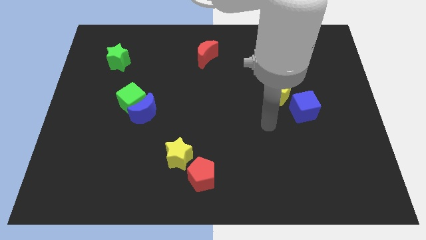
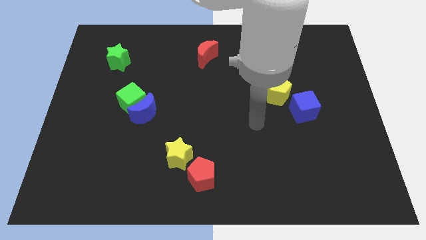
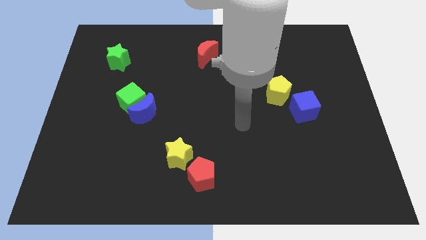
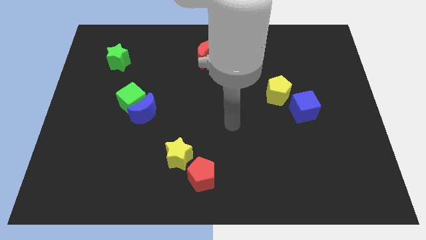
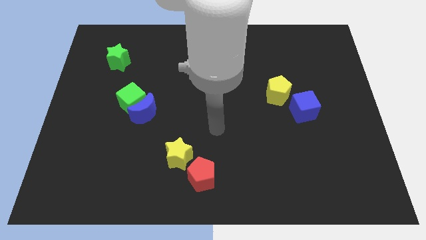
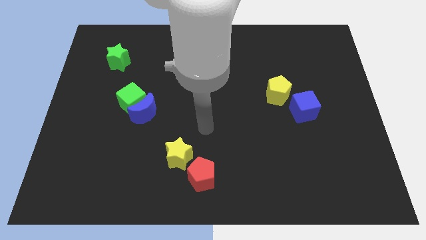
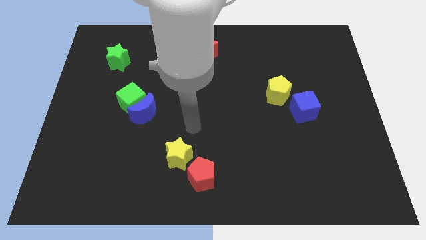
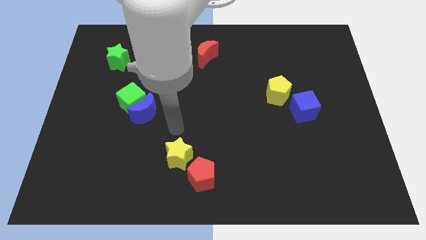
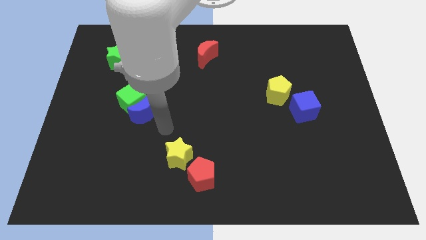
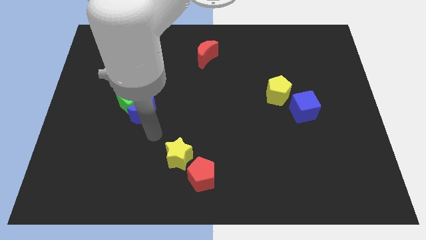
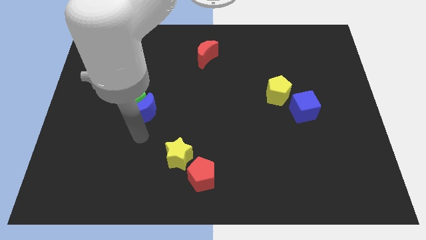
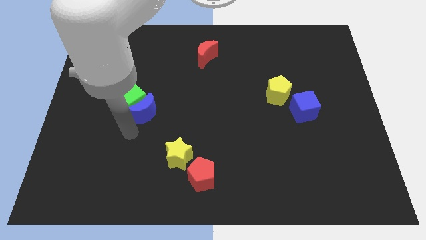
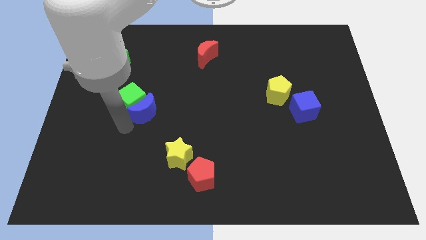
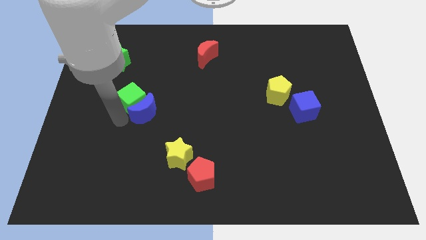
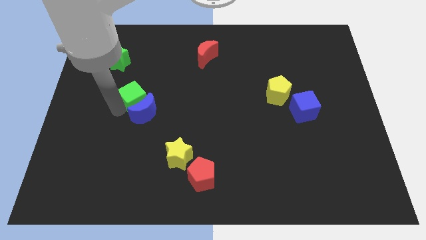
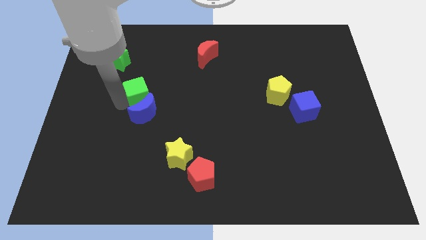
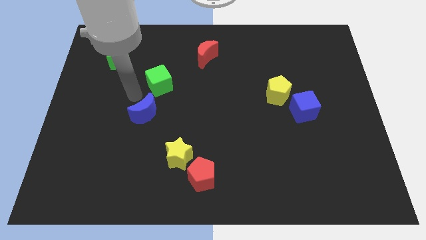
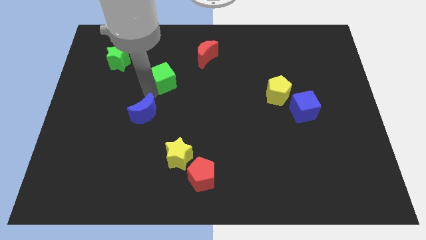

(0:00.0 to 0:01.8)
move the blue moon away from the green cube

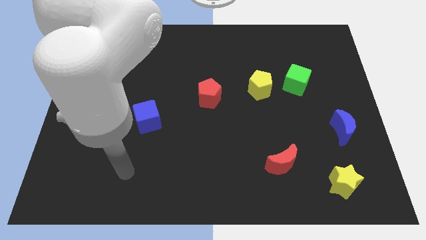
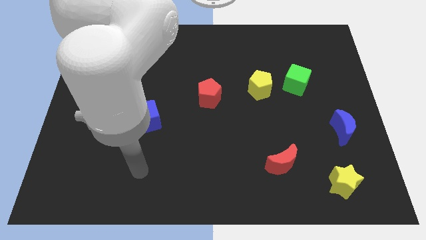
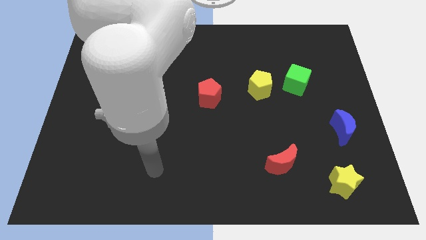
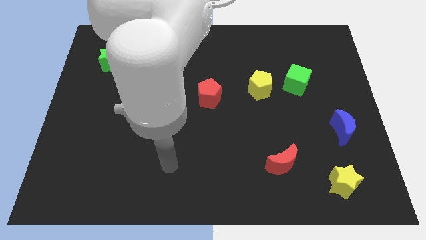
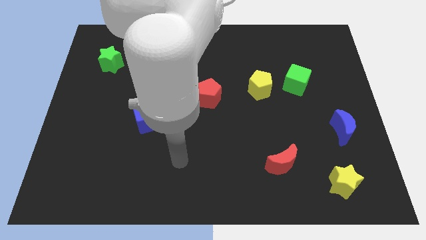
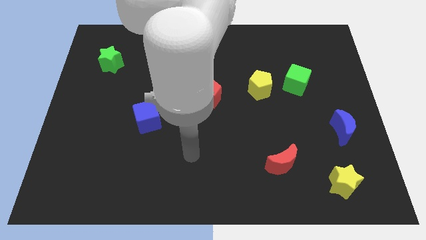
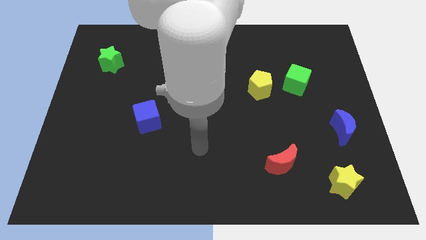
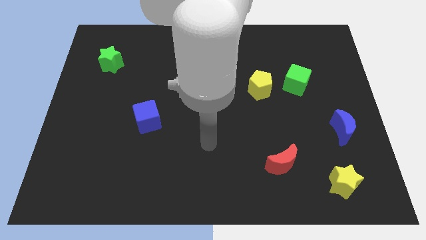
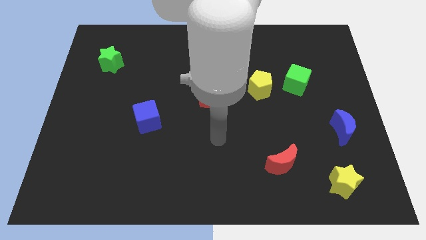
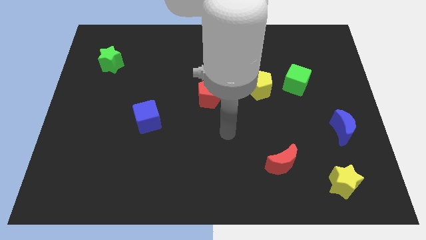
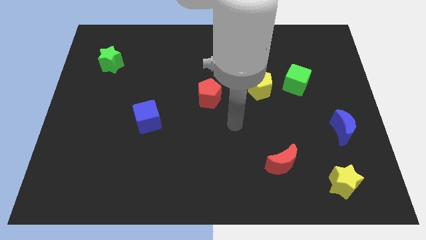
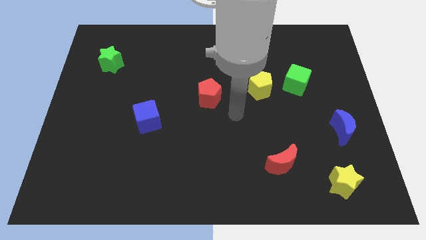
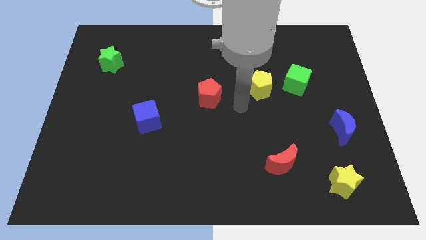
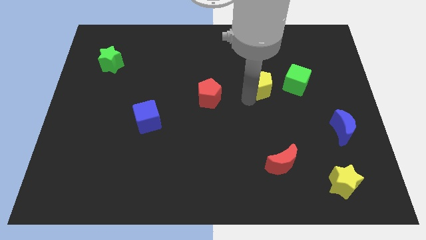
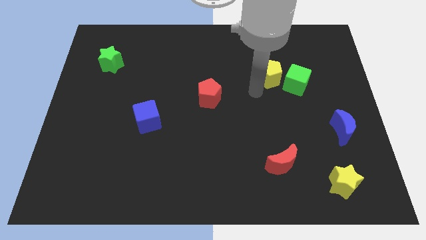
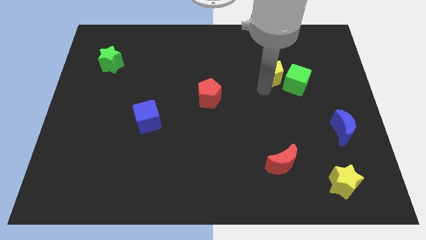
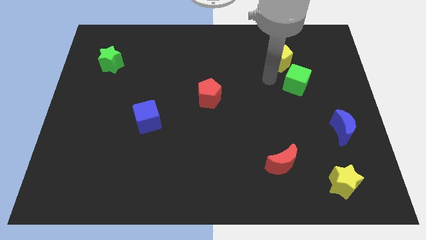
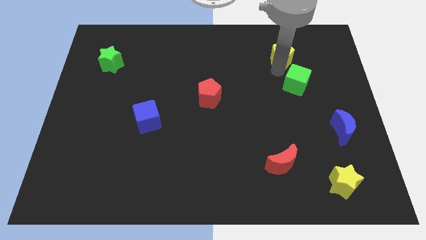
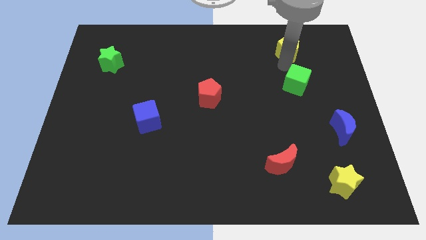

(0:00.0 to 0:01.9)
pull the green cube apart from the yellow pentagon

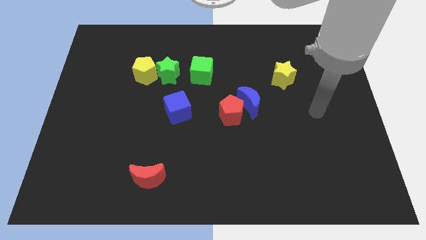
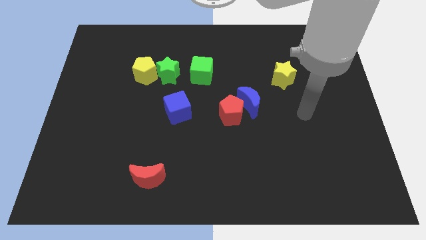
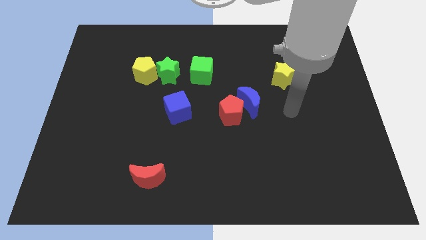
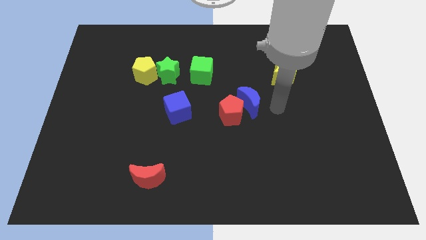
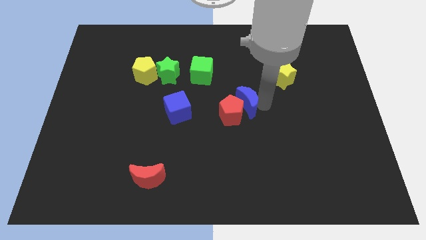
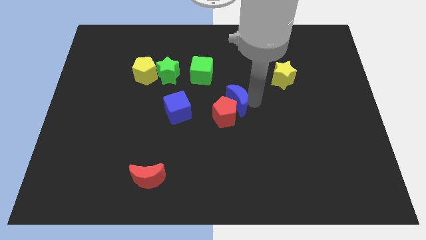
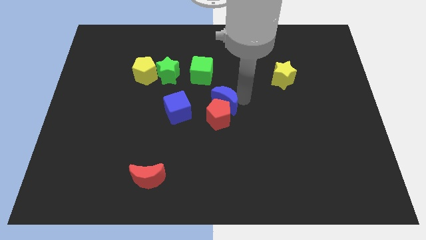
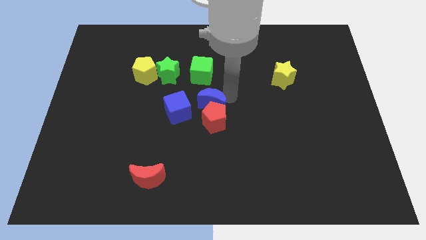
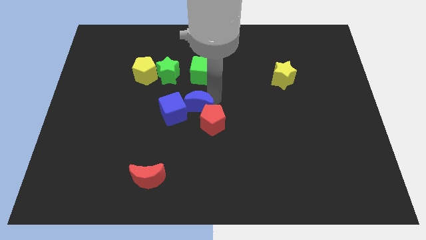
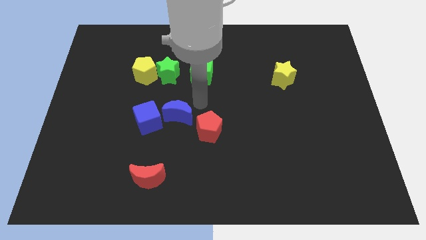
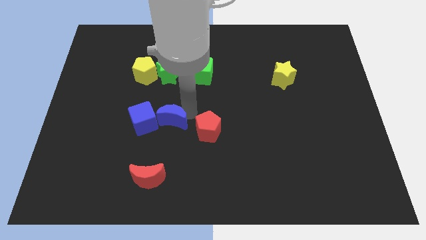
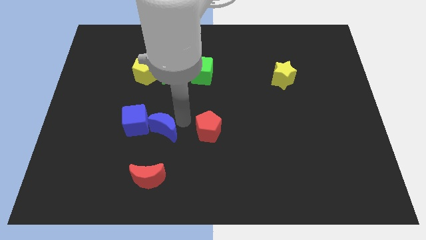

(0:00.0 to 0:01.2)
separate the red pentagon from the blue moon

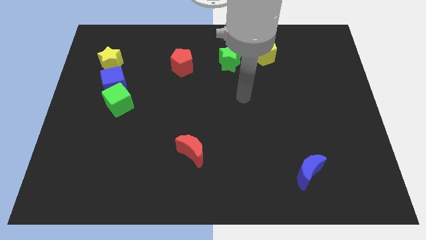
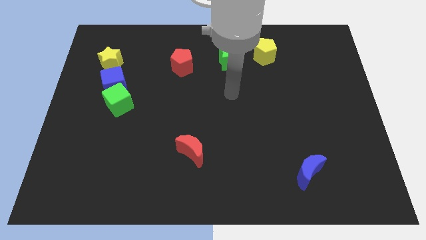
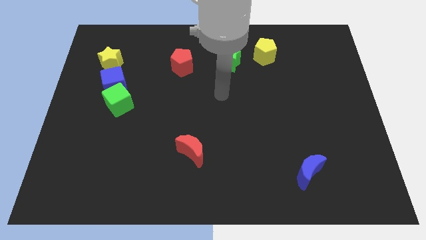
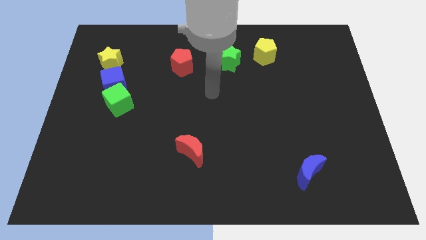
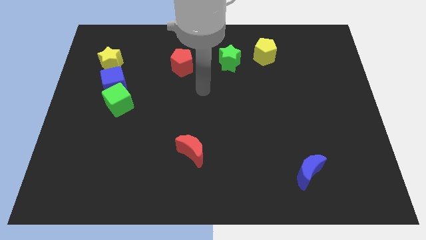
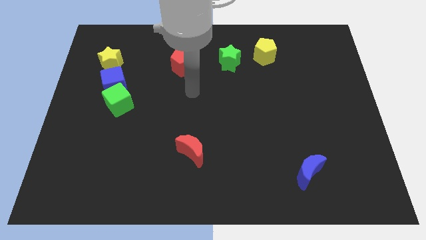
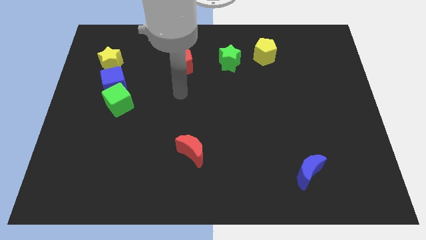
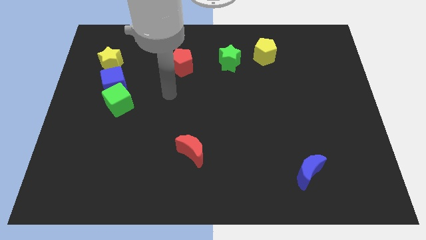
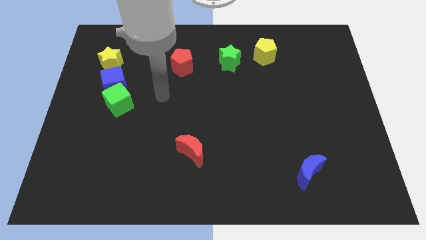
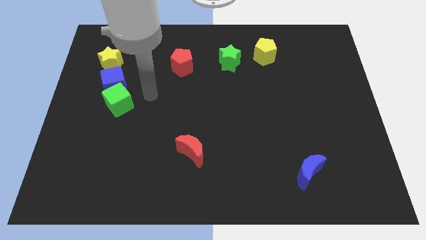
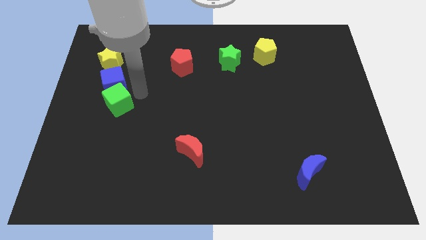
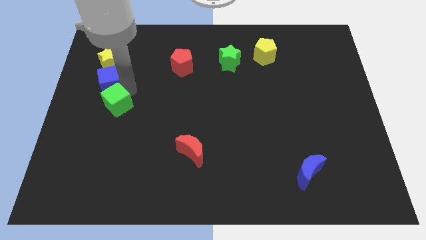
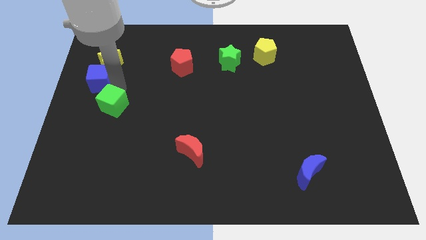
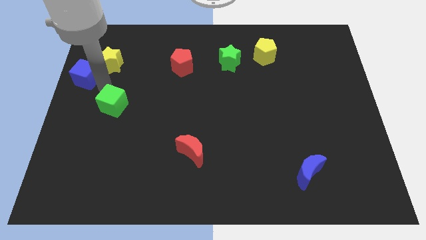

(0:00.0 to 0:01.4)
separate the green cube from the blue cube

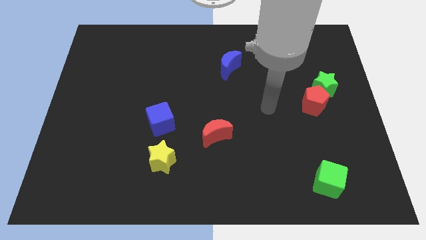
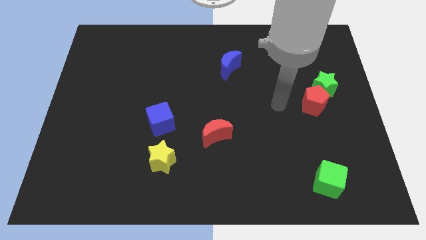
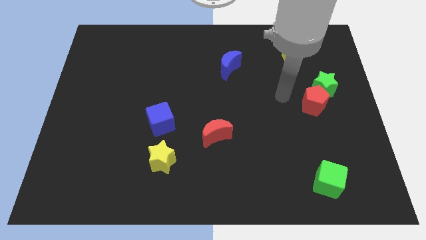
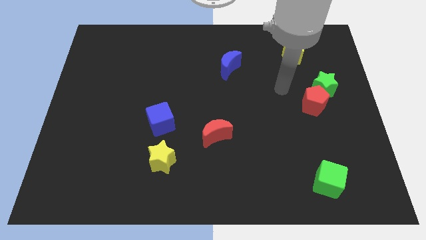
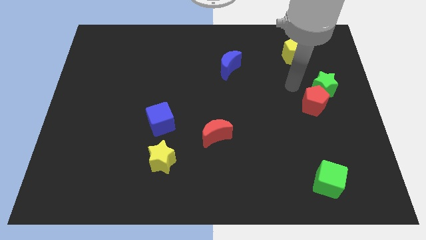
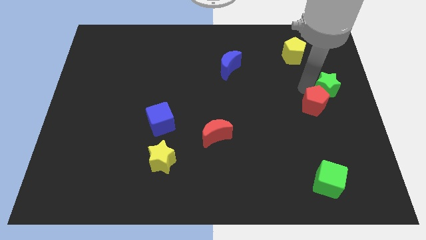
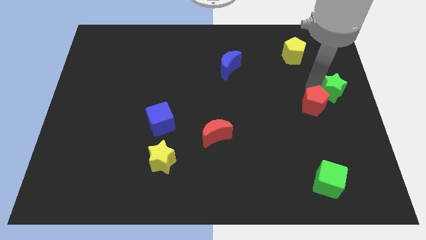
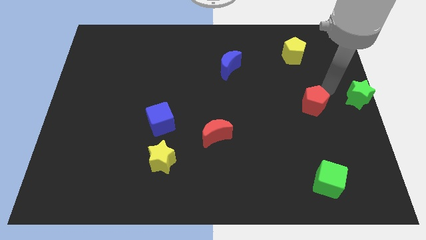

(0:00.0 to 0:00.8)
move the red pentagon away from the green star

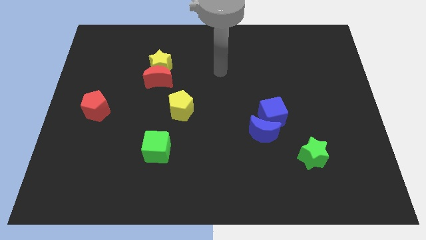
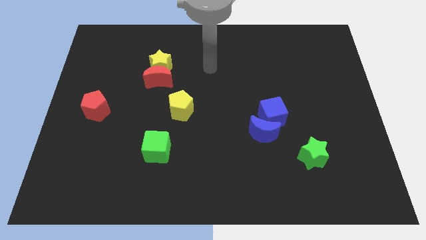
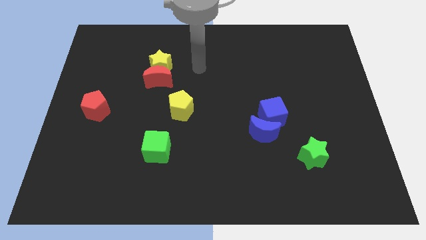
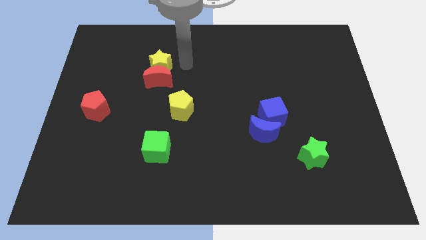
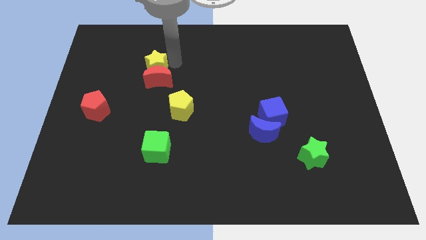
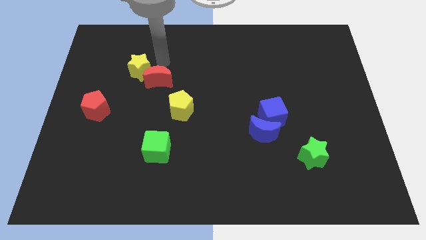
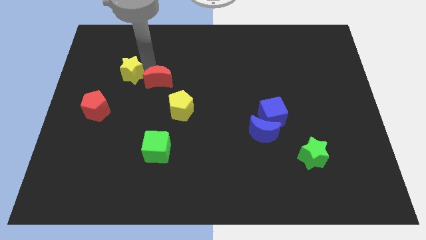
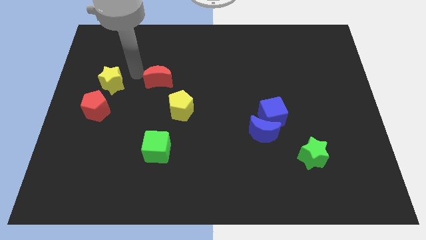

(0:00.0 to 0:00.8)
move the red moon away from the yellow star

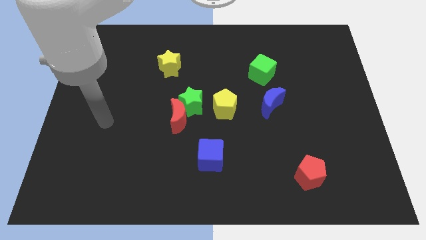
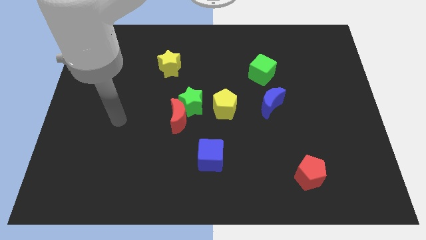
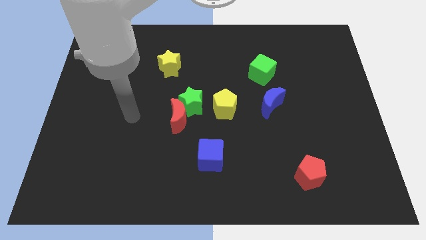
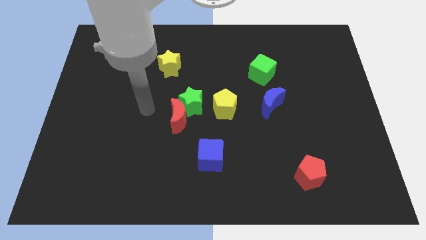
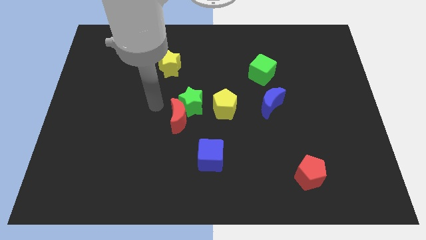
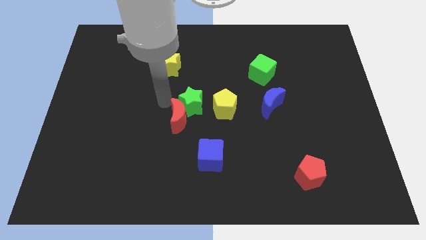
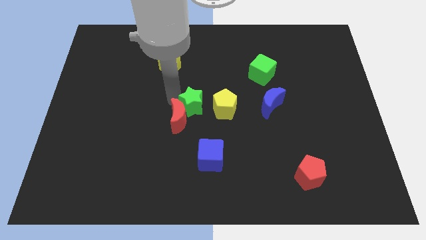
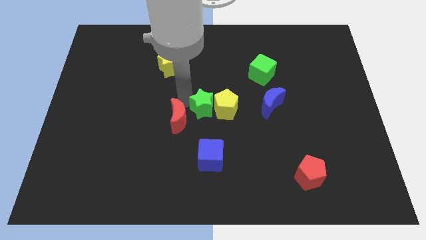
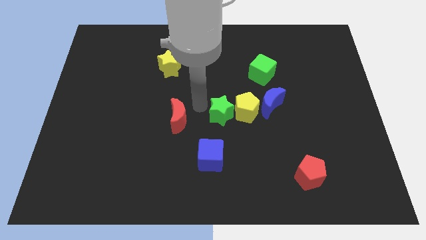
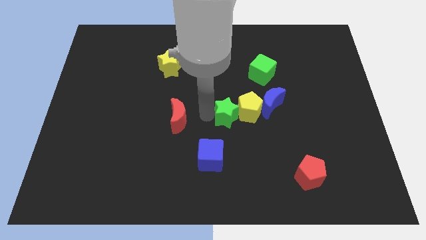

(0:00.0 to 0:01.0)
pull the red moon apart from the green star

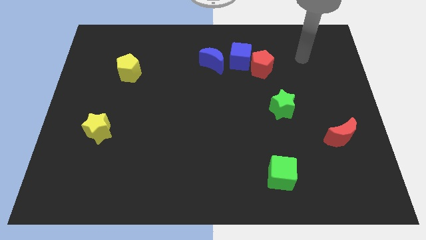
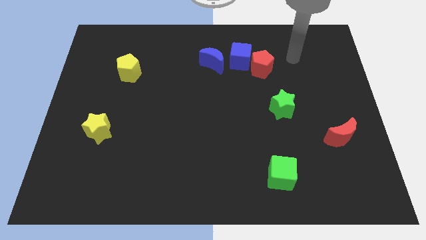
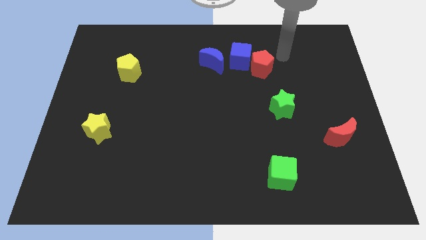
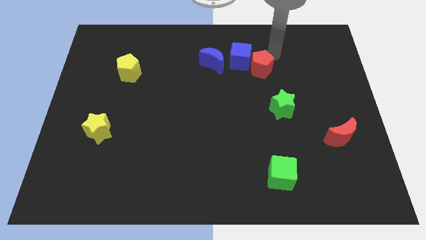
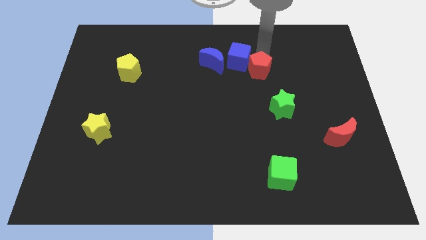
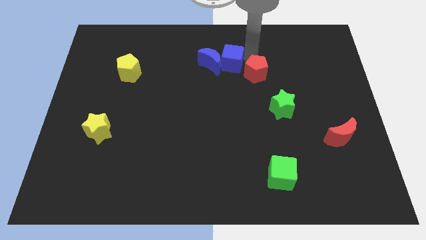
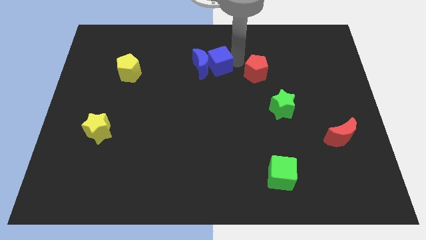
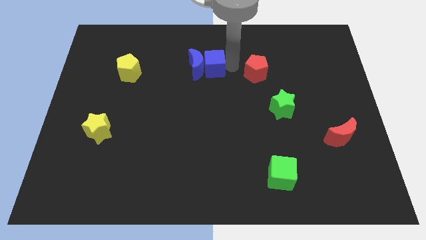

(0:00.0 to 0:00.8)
separate the red pentagon from the blue cube
